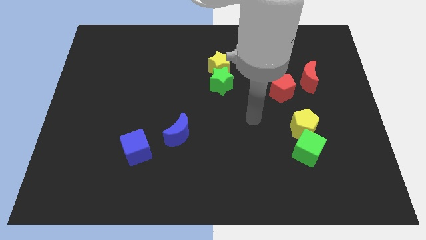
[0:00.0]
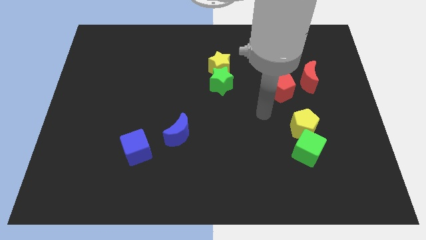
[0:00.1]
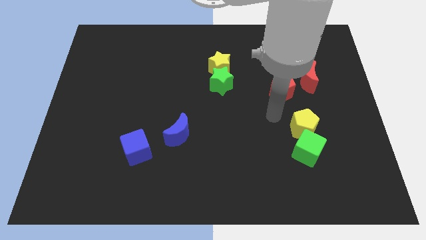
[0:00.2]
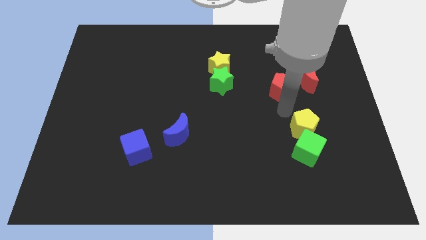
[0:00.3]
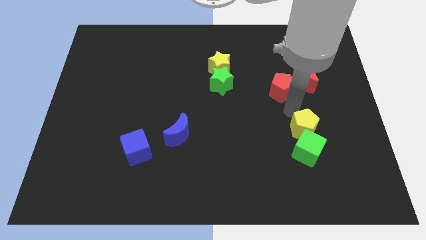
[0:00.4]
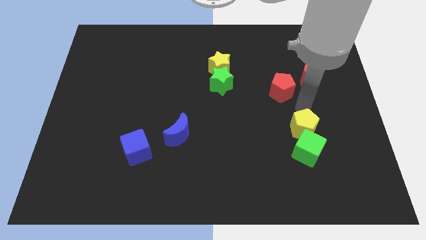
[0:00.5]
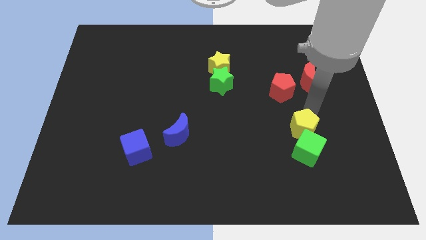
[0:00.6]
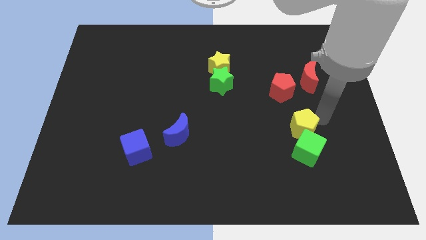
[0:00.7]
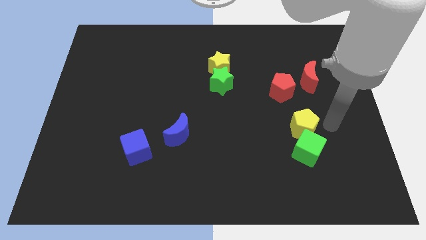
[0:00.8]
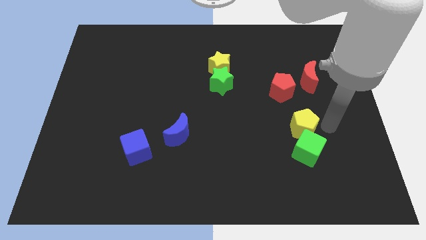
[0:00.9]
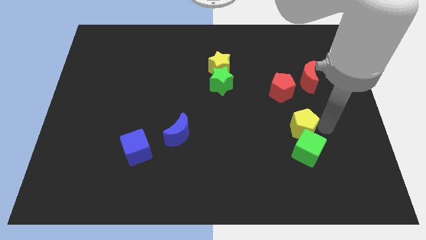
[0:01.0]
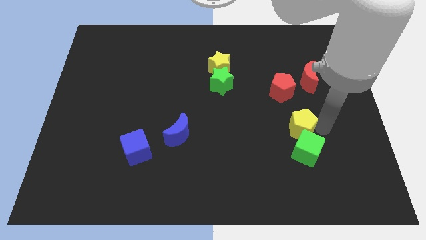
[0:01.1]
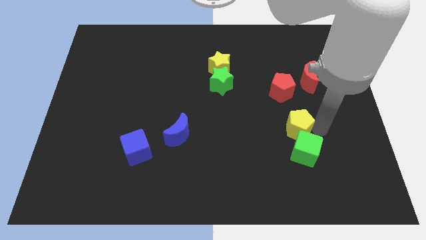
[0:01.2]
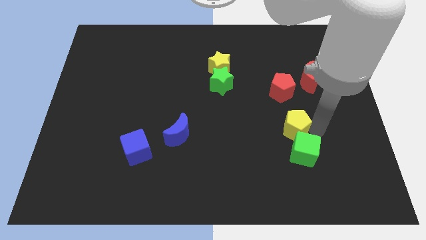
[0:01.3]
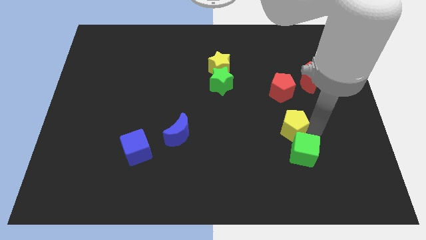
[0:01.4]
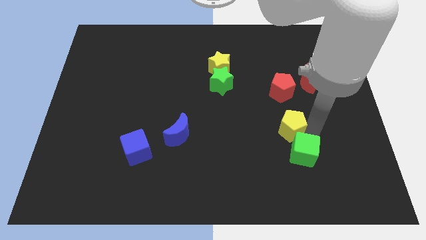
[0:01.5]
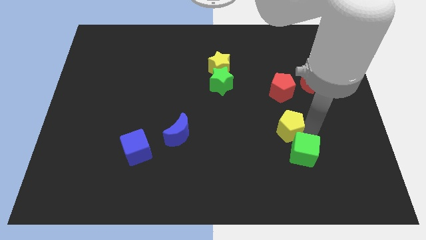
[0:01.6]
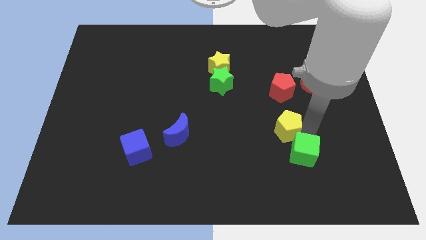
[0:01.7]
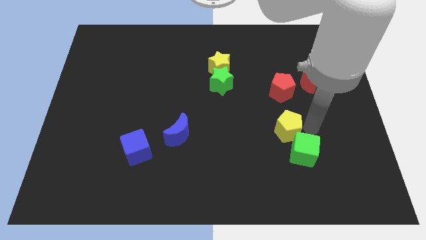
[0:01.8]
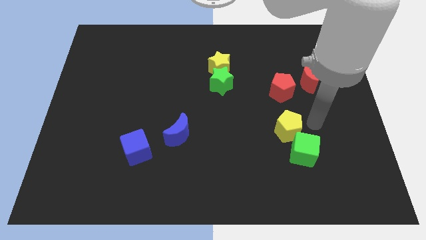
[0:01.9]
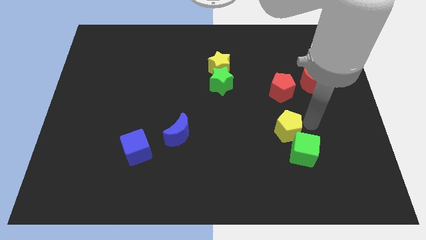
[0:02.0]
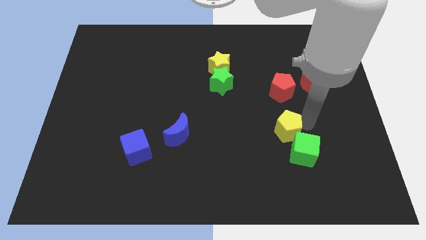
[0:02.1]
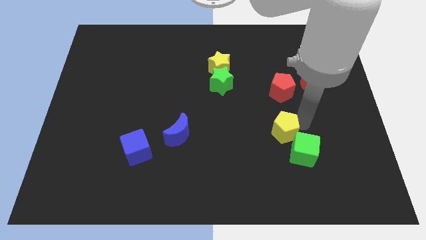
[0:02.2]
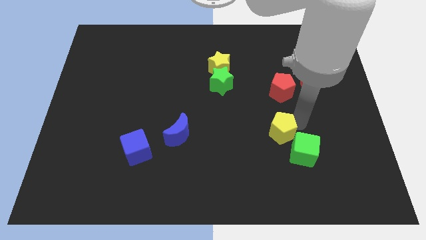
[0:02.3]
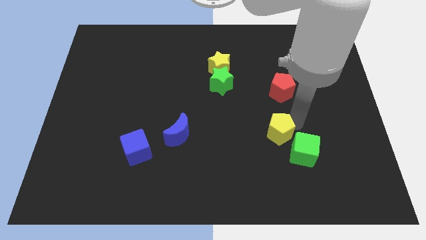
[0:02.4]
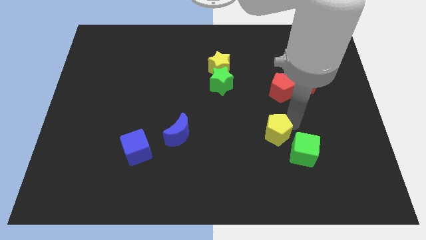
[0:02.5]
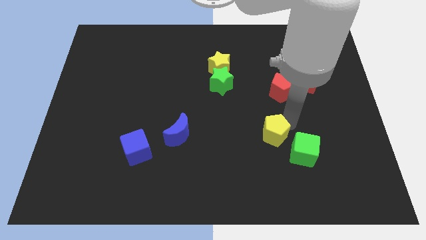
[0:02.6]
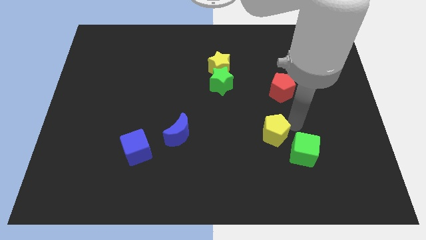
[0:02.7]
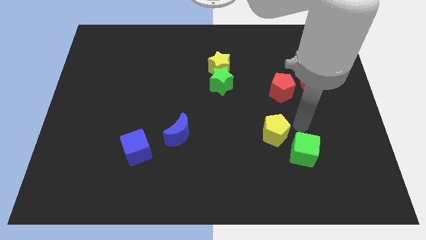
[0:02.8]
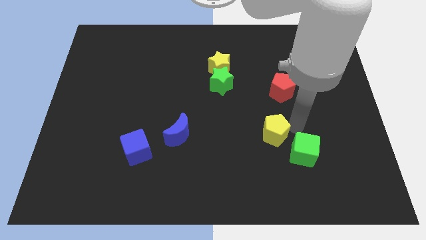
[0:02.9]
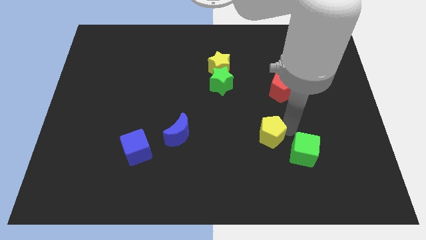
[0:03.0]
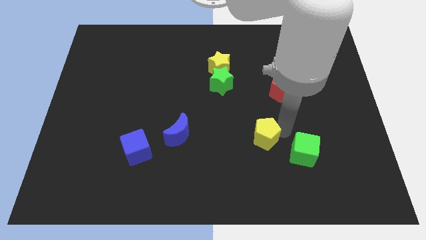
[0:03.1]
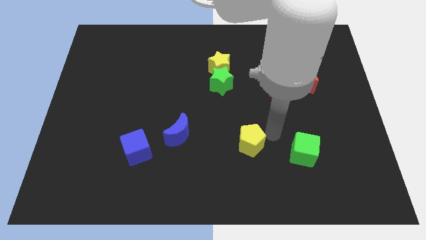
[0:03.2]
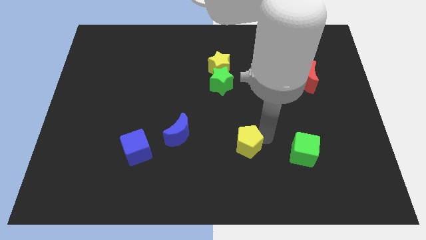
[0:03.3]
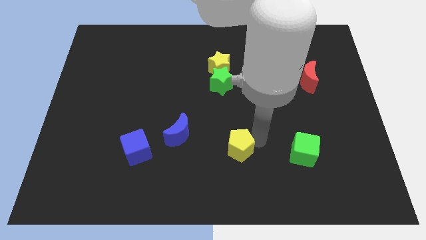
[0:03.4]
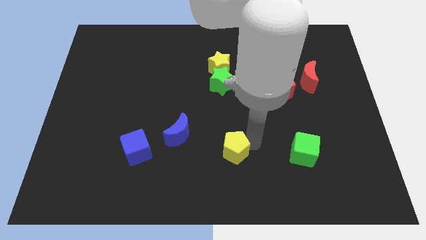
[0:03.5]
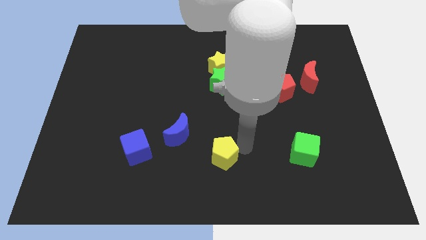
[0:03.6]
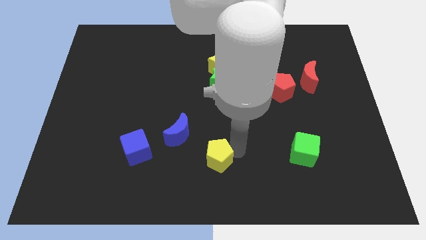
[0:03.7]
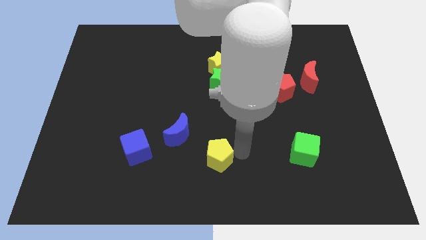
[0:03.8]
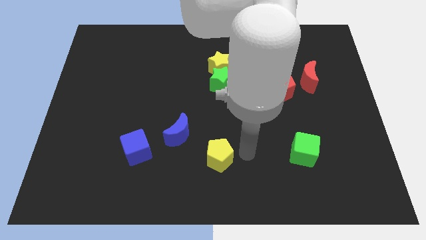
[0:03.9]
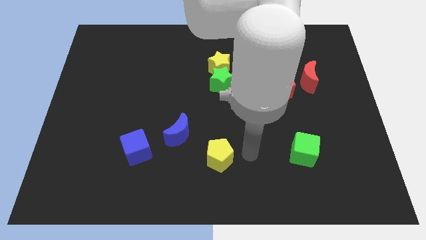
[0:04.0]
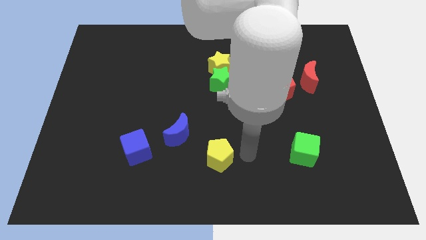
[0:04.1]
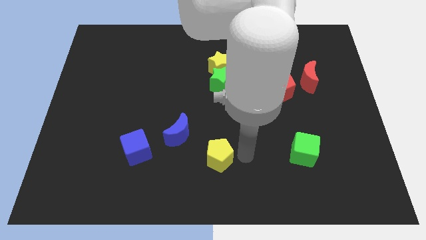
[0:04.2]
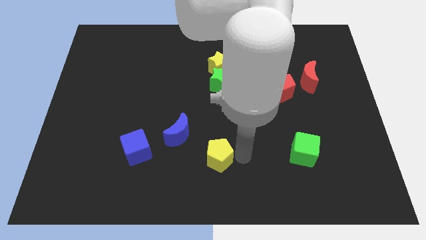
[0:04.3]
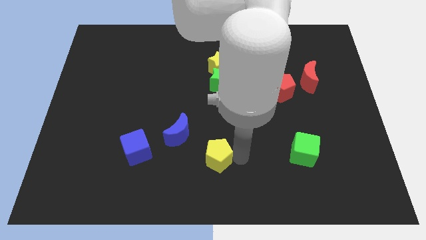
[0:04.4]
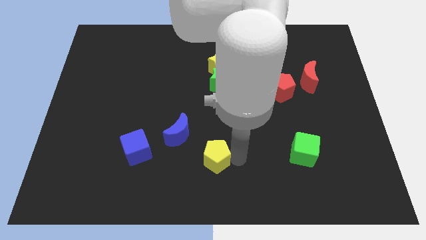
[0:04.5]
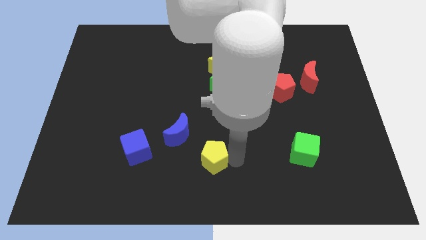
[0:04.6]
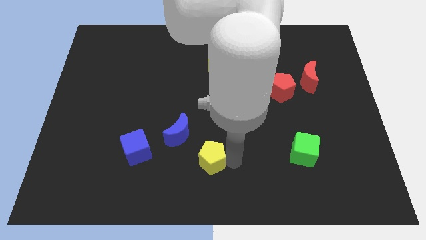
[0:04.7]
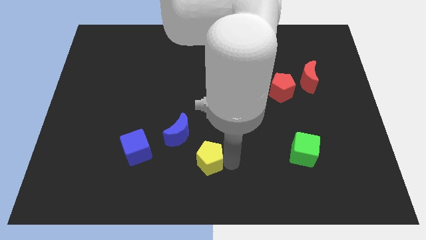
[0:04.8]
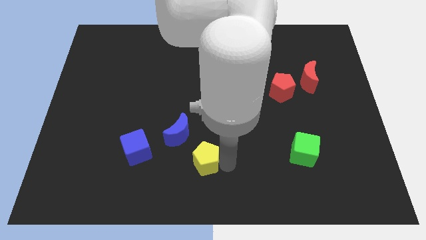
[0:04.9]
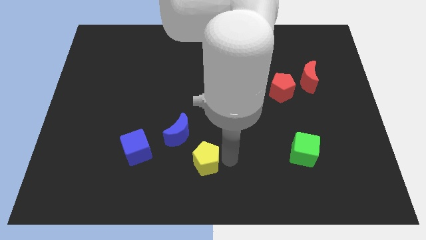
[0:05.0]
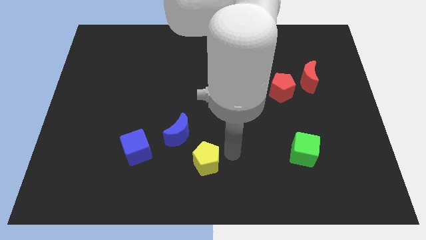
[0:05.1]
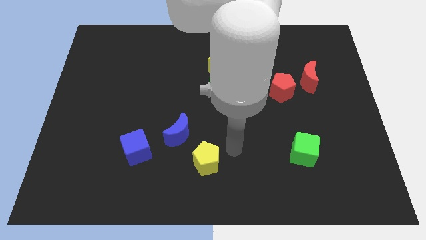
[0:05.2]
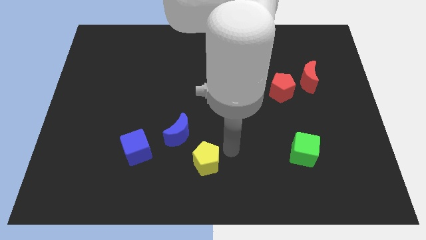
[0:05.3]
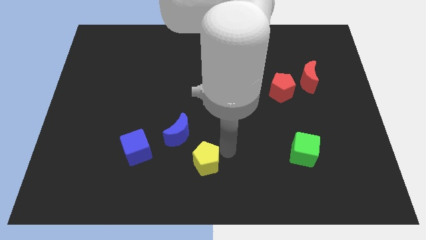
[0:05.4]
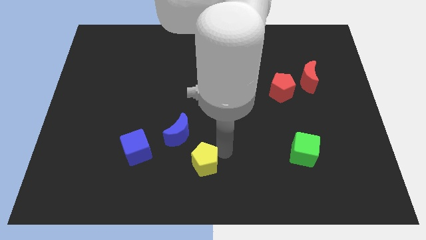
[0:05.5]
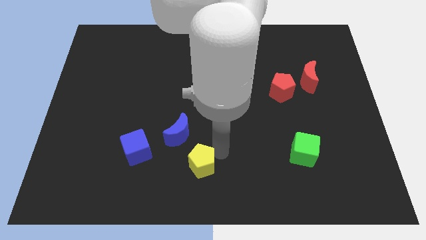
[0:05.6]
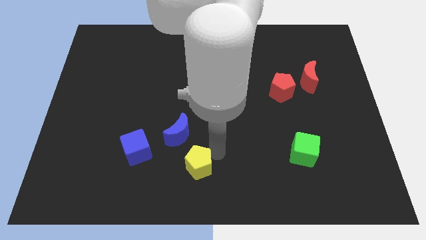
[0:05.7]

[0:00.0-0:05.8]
slide the yellow pentagon below the blue moon
